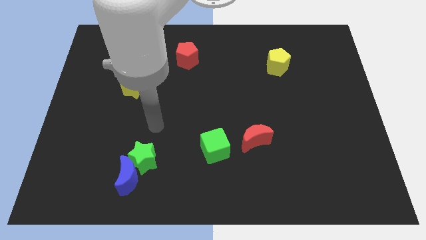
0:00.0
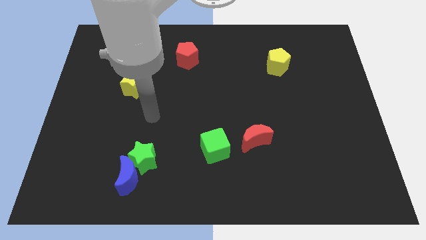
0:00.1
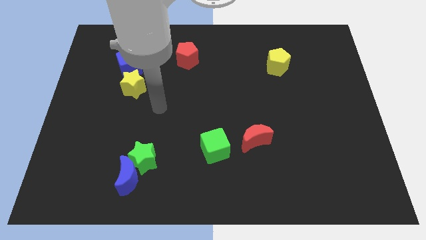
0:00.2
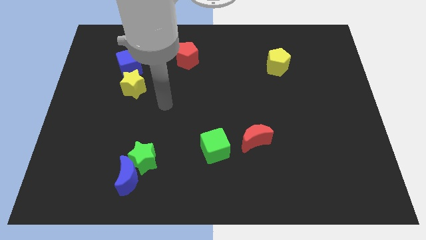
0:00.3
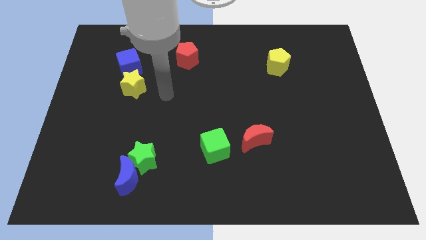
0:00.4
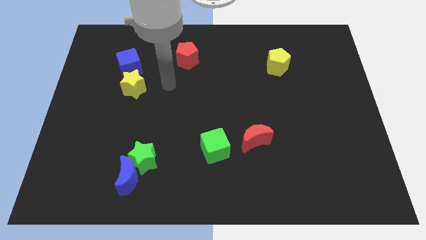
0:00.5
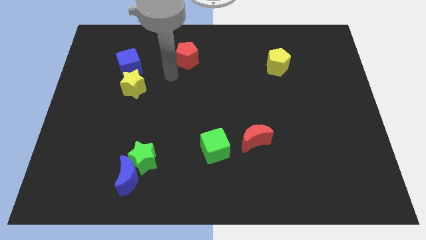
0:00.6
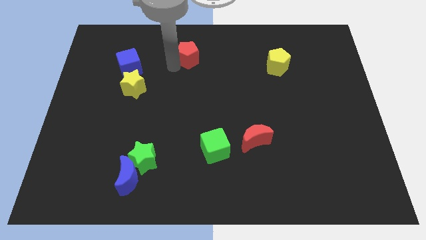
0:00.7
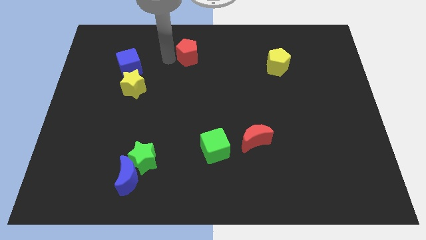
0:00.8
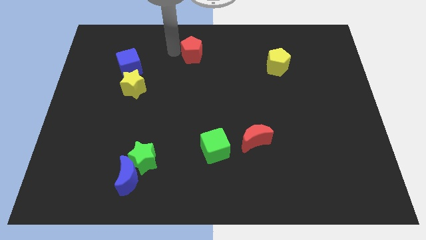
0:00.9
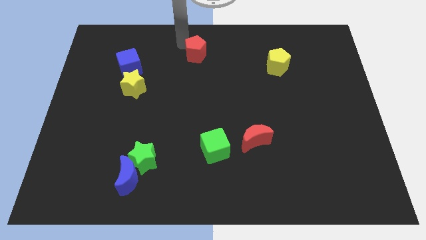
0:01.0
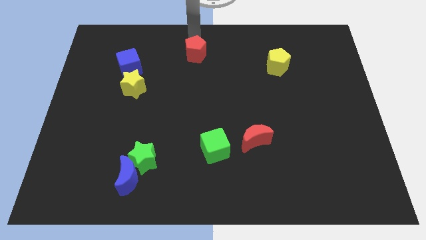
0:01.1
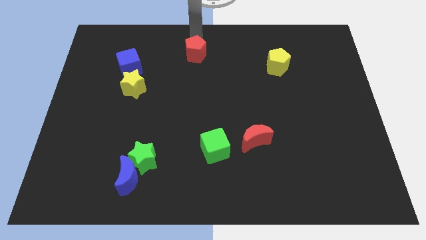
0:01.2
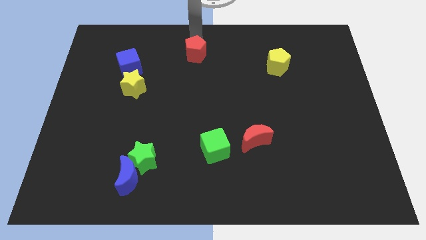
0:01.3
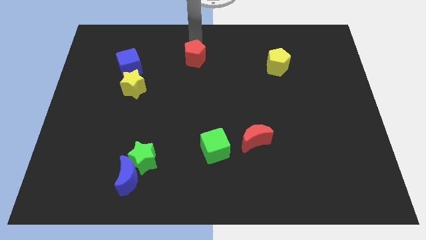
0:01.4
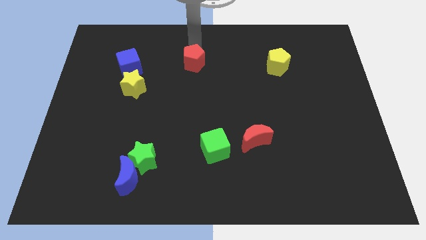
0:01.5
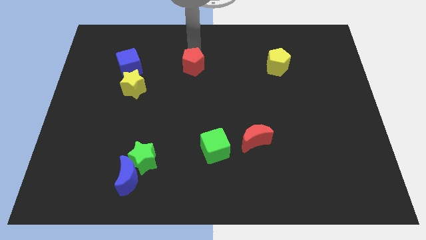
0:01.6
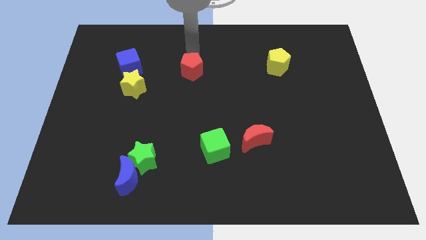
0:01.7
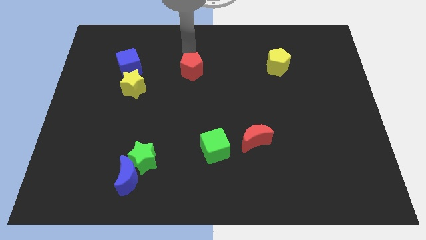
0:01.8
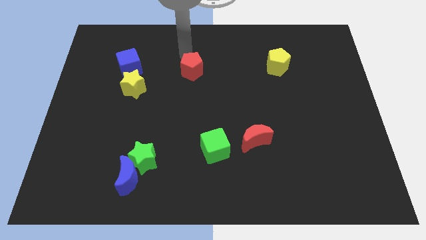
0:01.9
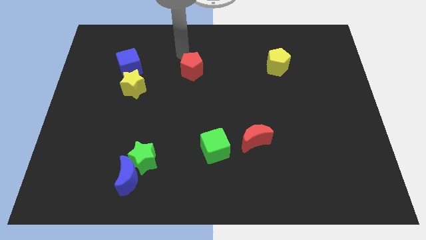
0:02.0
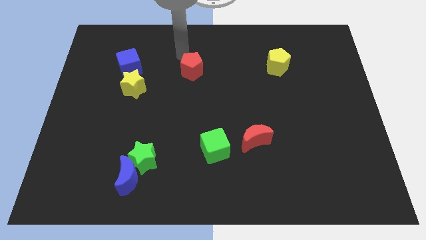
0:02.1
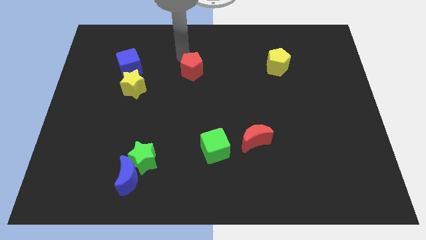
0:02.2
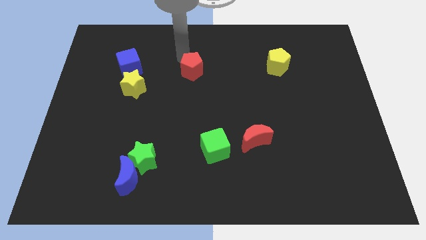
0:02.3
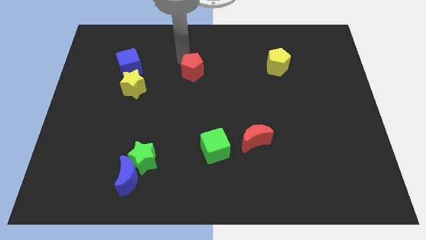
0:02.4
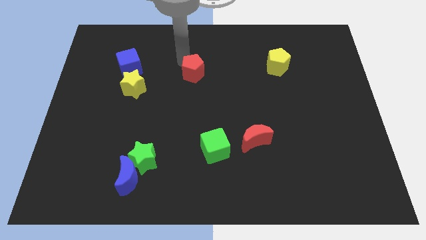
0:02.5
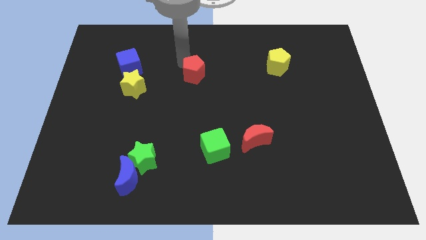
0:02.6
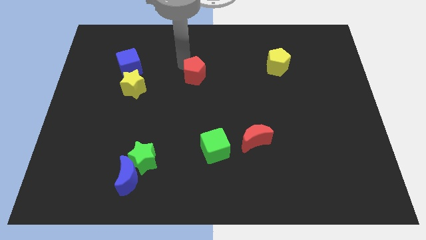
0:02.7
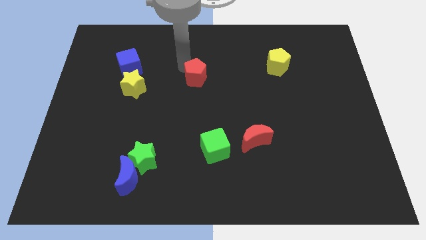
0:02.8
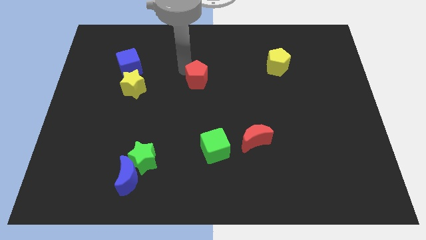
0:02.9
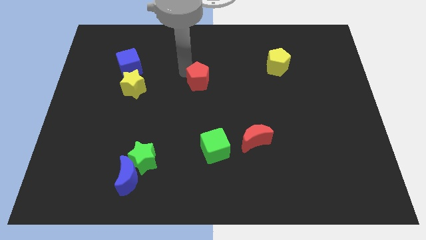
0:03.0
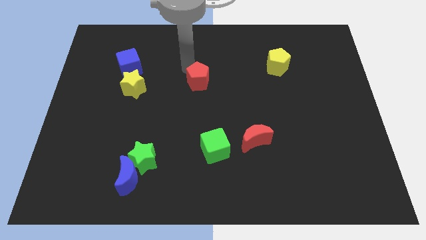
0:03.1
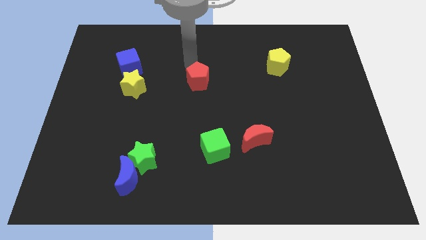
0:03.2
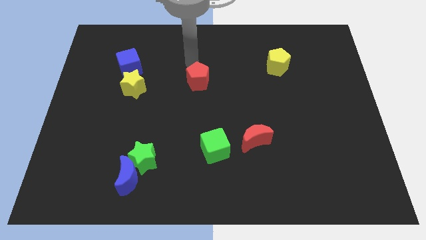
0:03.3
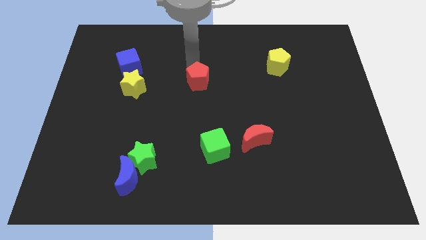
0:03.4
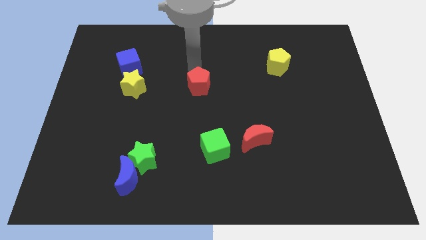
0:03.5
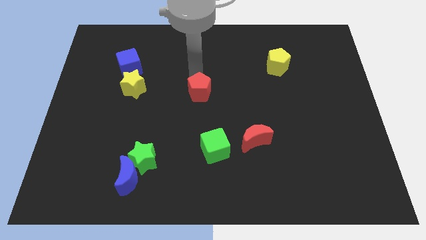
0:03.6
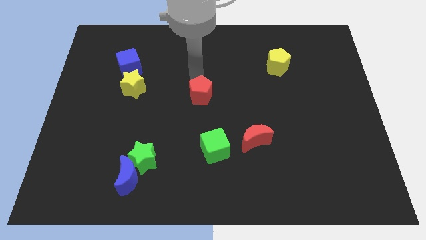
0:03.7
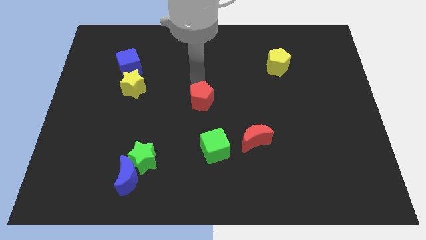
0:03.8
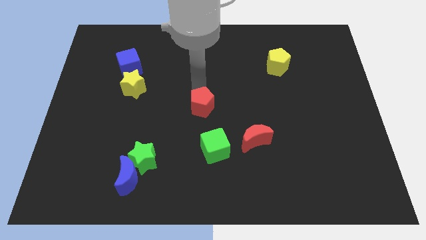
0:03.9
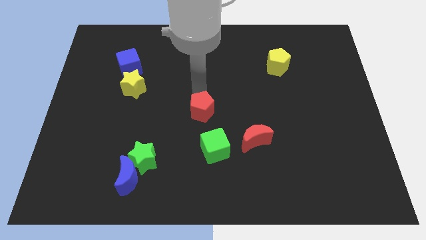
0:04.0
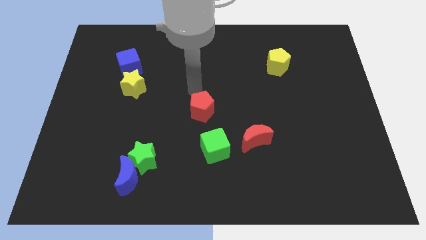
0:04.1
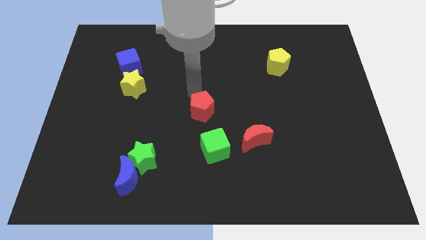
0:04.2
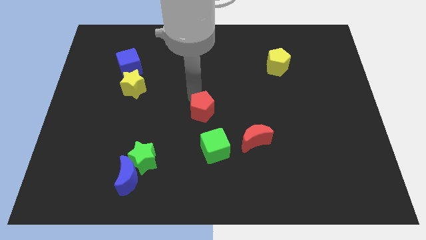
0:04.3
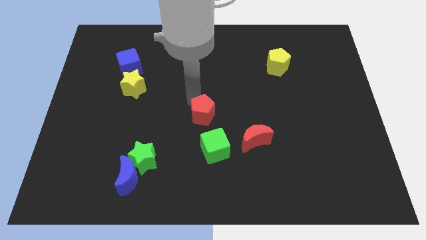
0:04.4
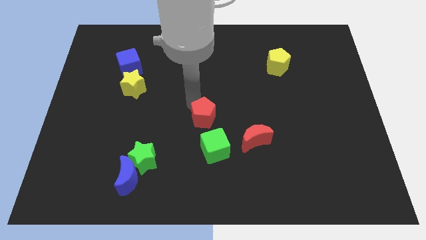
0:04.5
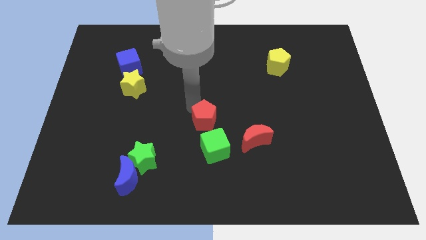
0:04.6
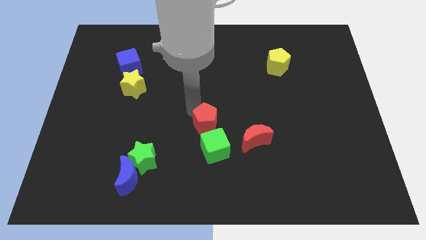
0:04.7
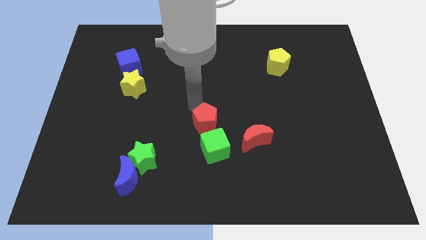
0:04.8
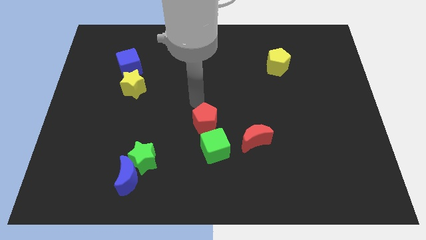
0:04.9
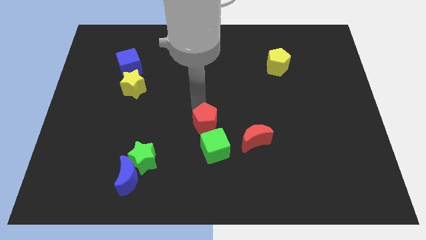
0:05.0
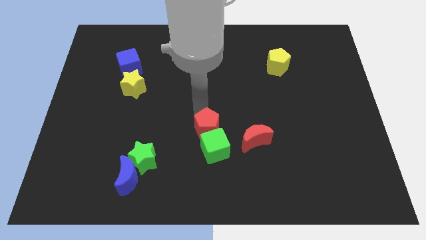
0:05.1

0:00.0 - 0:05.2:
push the red pentagon close to the green cube

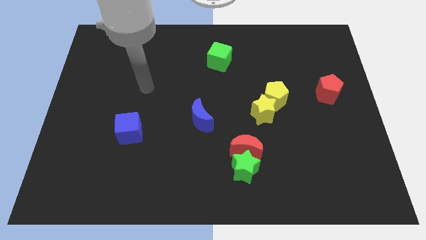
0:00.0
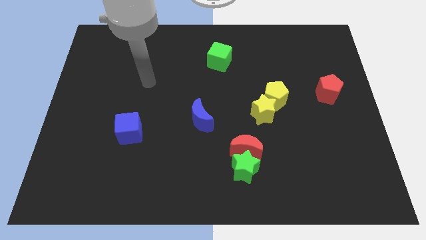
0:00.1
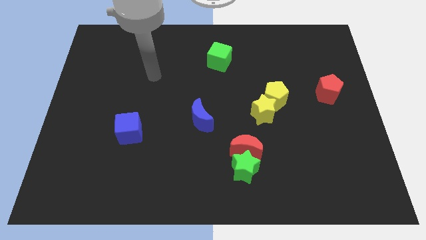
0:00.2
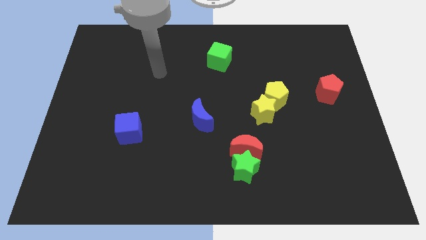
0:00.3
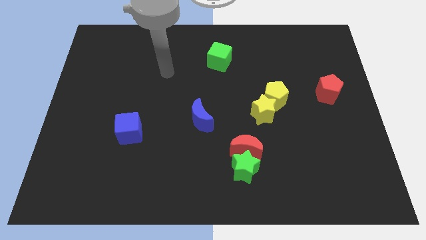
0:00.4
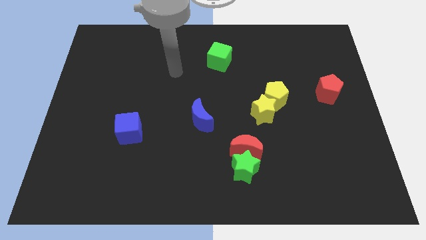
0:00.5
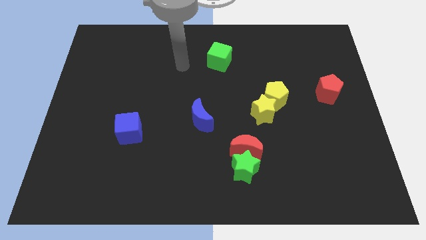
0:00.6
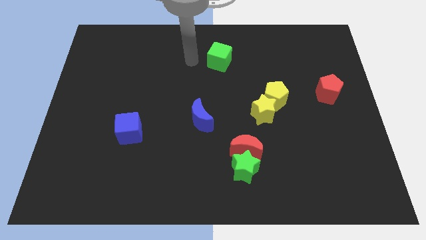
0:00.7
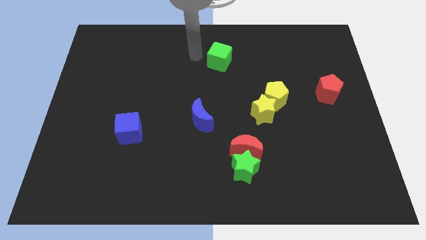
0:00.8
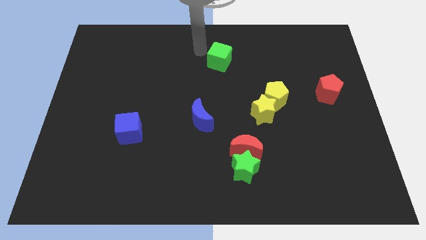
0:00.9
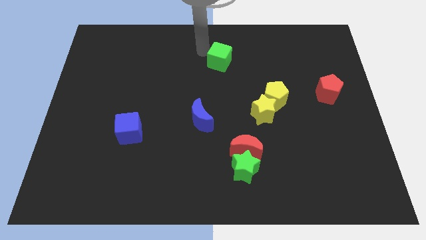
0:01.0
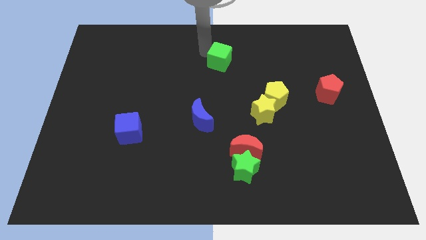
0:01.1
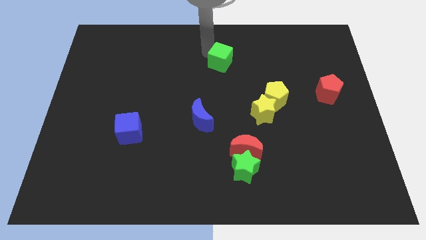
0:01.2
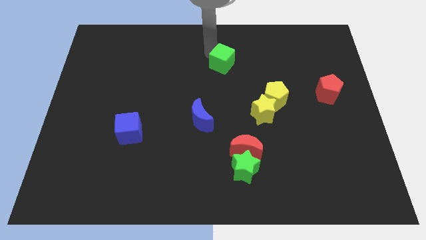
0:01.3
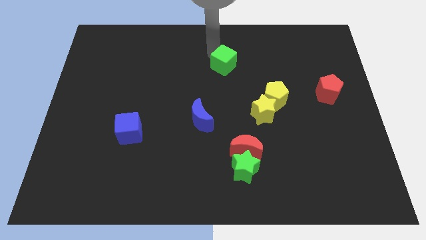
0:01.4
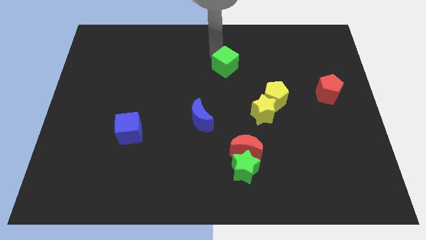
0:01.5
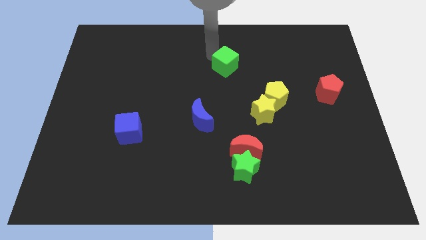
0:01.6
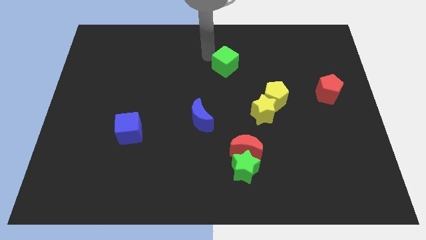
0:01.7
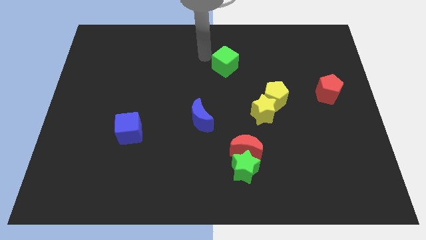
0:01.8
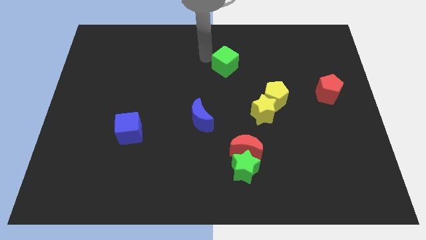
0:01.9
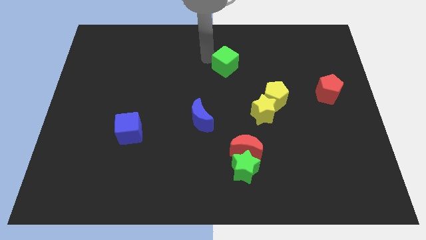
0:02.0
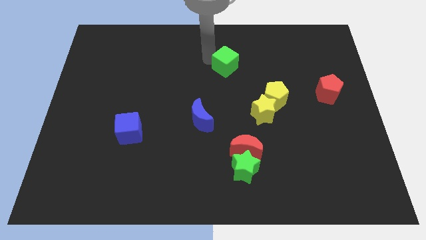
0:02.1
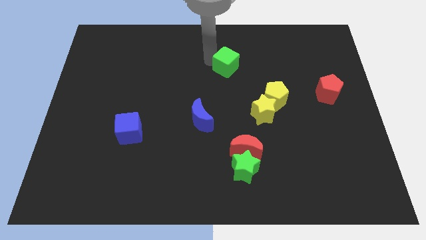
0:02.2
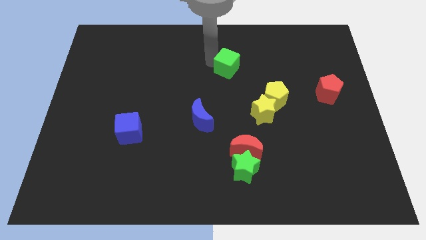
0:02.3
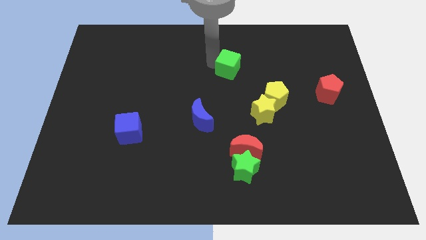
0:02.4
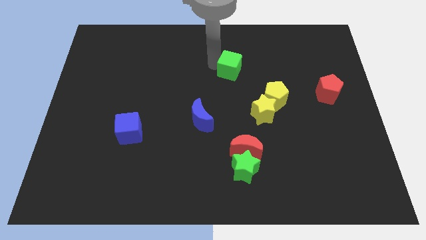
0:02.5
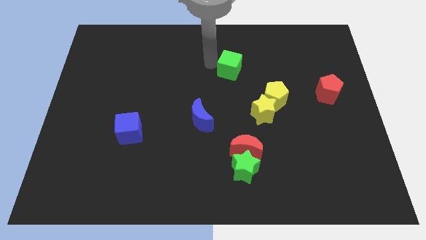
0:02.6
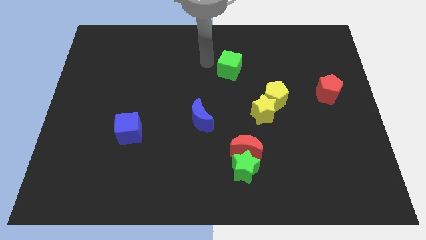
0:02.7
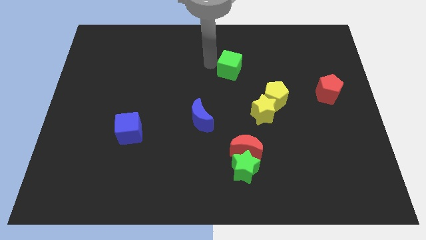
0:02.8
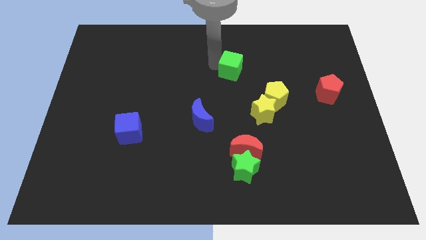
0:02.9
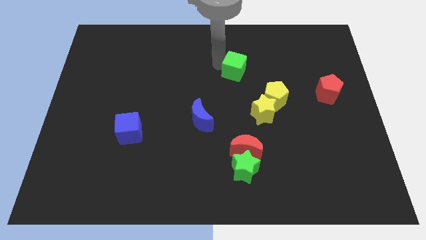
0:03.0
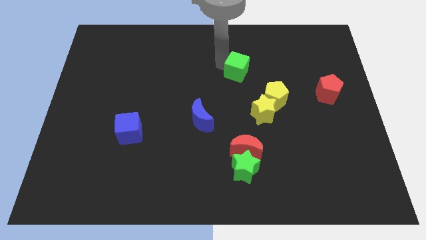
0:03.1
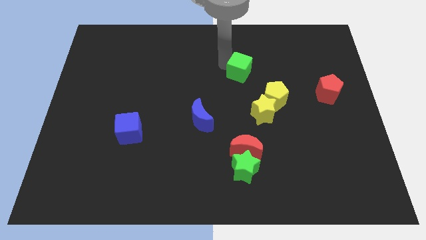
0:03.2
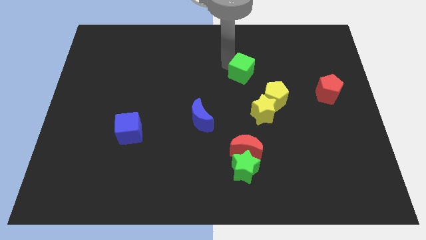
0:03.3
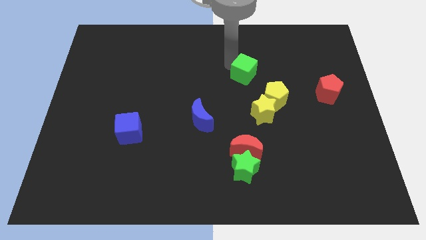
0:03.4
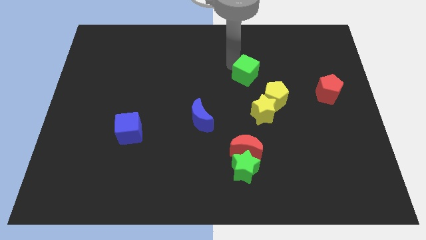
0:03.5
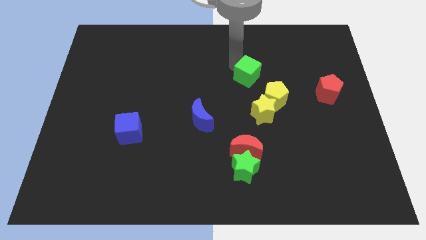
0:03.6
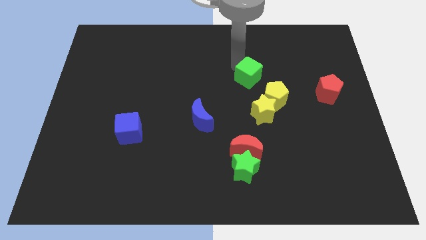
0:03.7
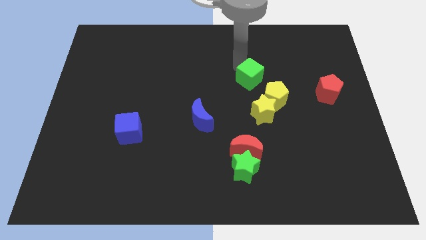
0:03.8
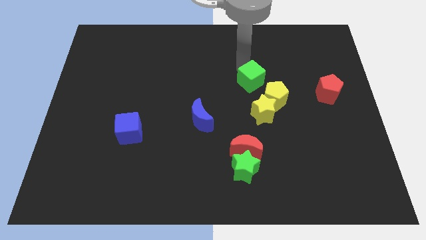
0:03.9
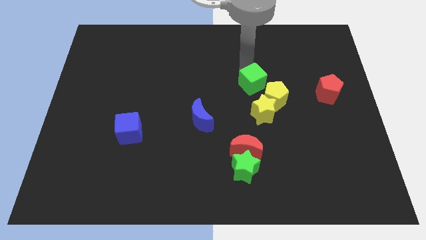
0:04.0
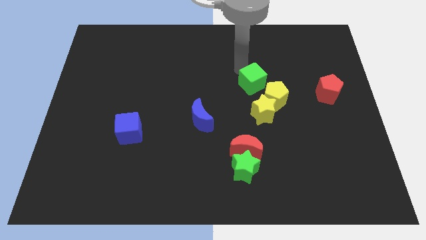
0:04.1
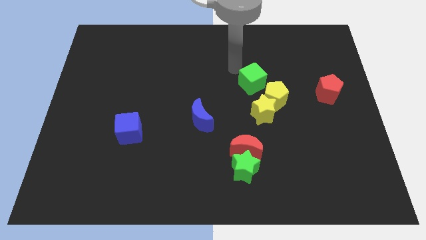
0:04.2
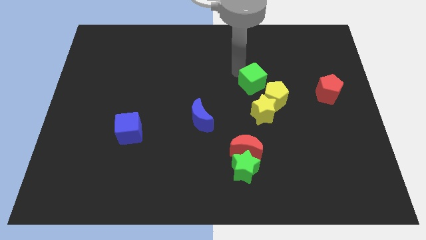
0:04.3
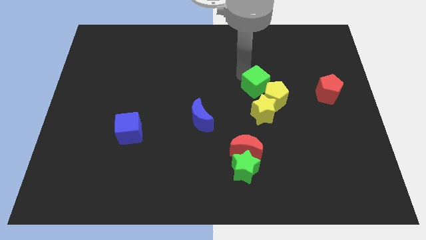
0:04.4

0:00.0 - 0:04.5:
slide the green cube towards the yellow pentagon
